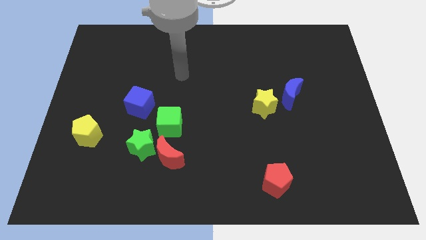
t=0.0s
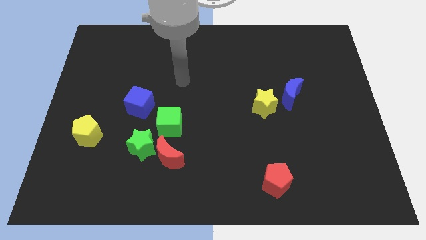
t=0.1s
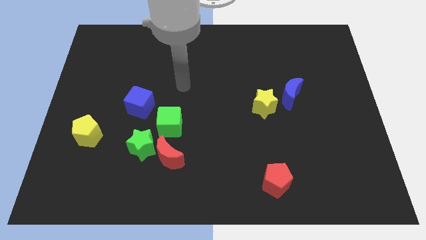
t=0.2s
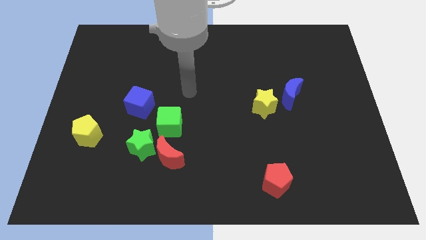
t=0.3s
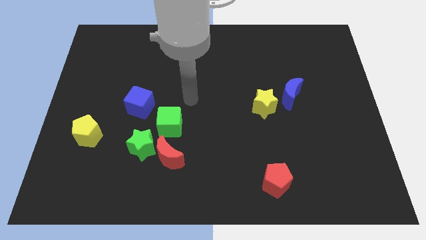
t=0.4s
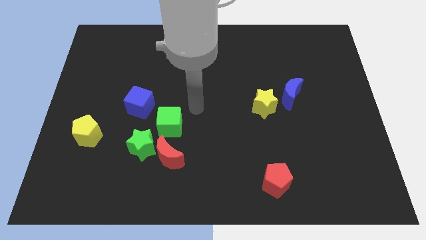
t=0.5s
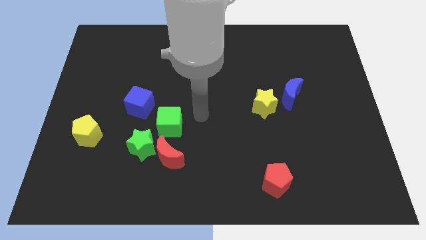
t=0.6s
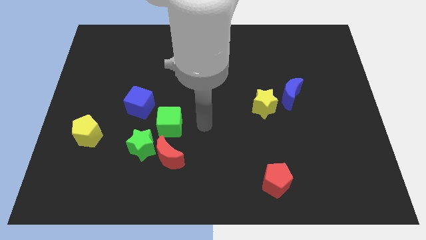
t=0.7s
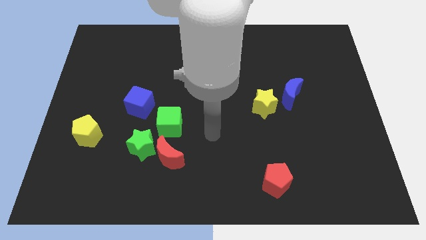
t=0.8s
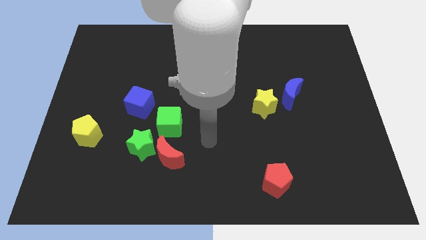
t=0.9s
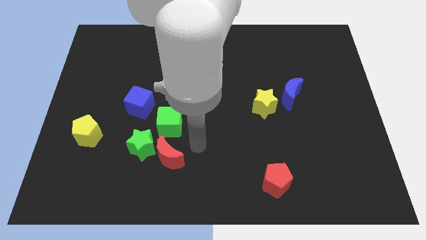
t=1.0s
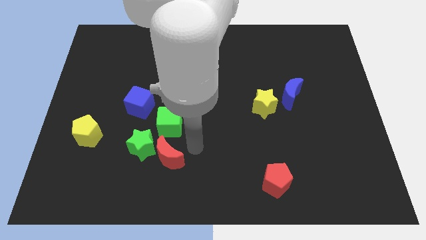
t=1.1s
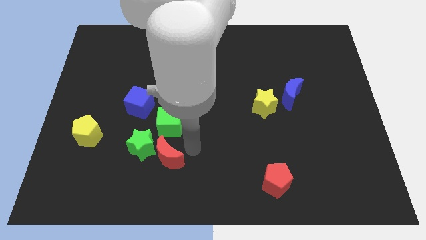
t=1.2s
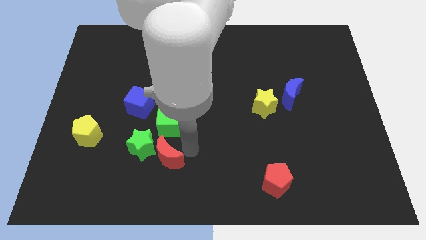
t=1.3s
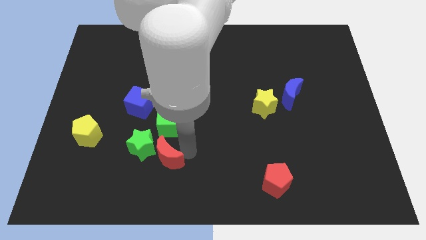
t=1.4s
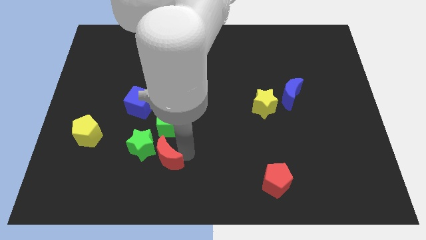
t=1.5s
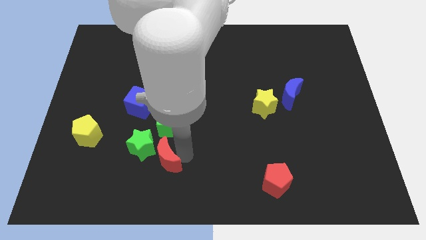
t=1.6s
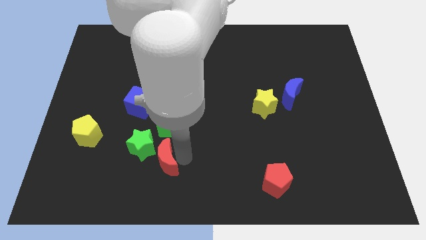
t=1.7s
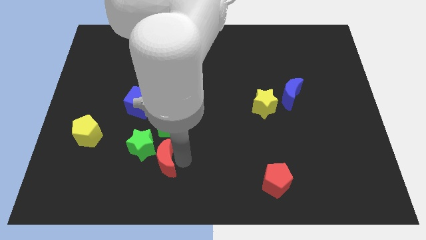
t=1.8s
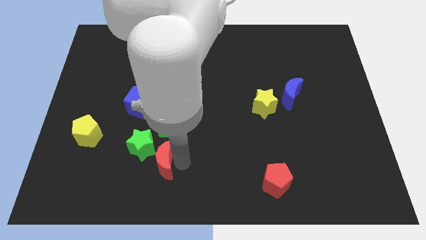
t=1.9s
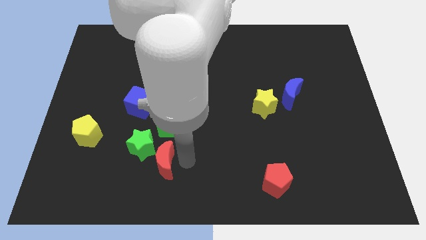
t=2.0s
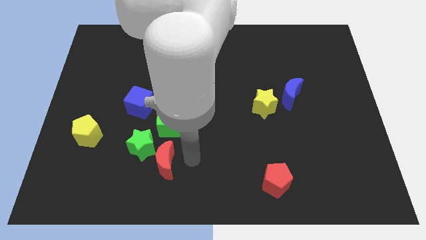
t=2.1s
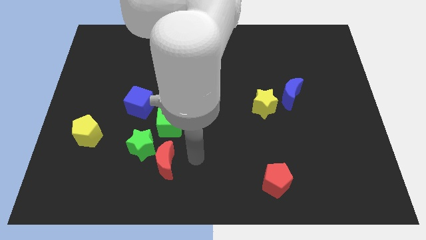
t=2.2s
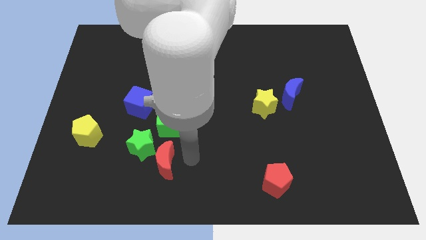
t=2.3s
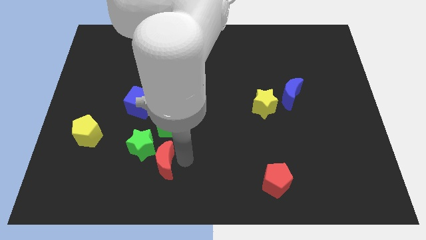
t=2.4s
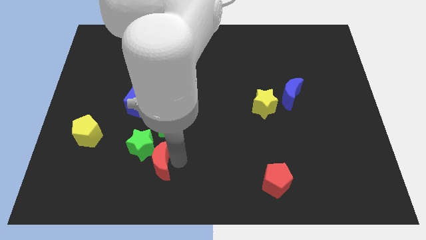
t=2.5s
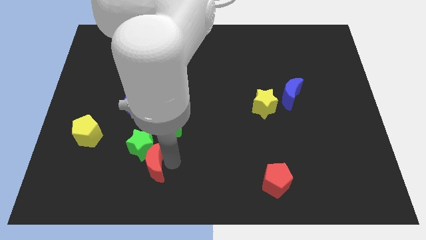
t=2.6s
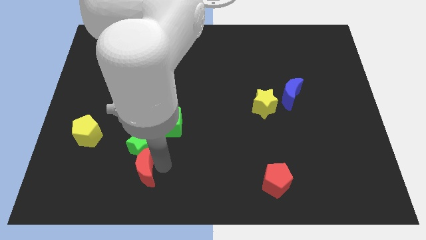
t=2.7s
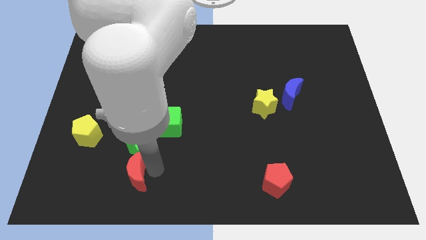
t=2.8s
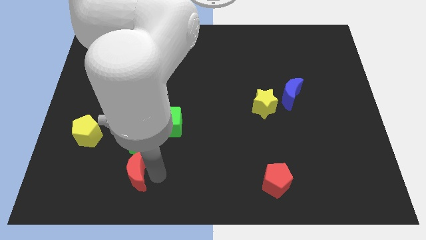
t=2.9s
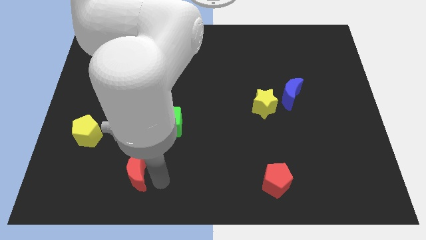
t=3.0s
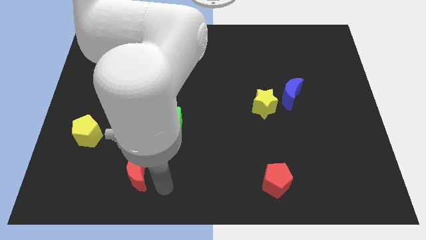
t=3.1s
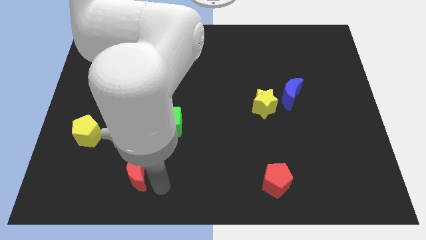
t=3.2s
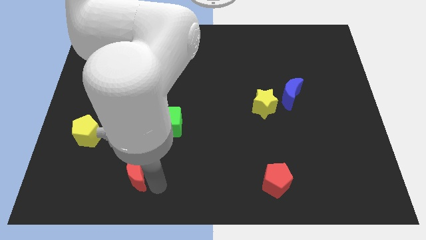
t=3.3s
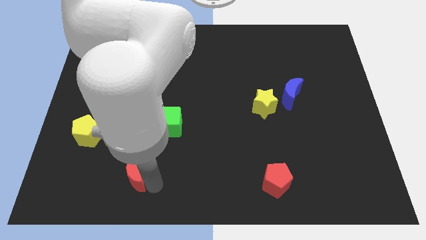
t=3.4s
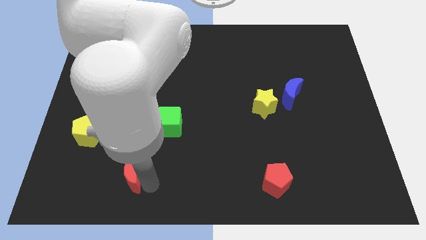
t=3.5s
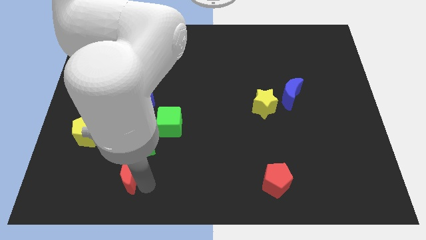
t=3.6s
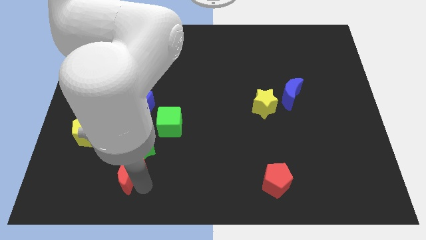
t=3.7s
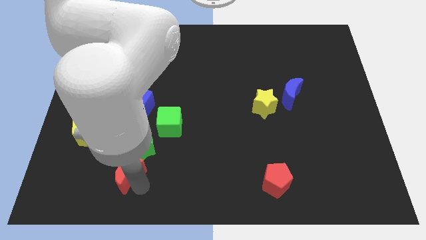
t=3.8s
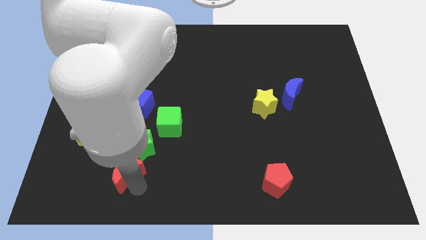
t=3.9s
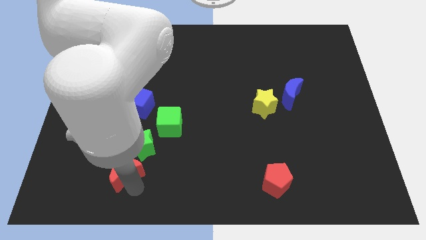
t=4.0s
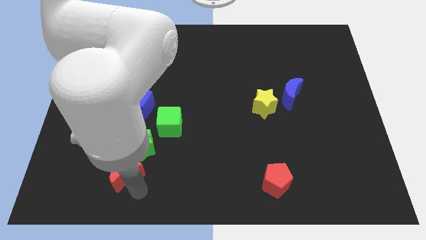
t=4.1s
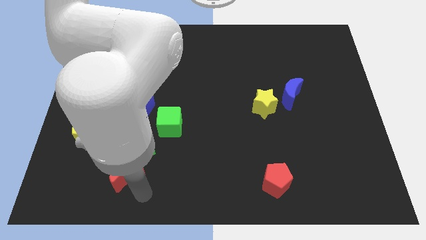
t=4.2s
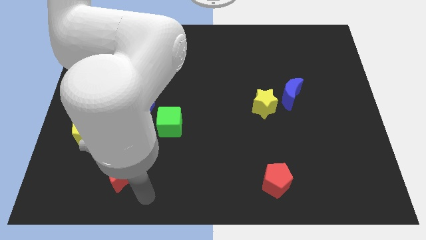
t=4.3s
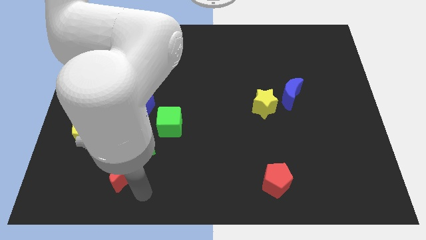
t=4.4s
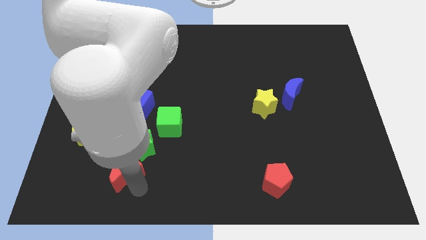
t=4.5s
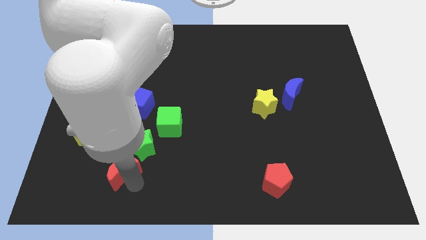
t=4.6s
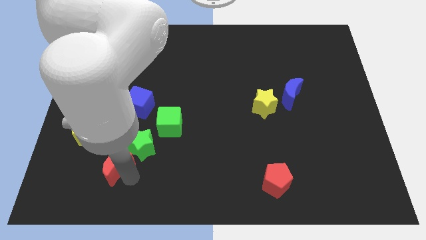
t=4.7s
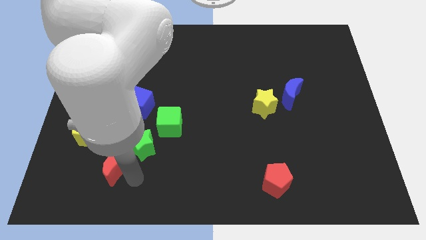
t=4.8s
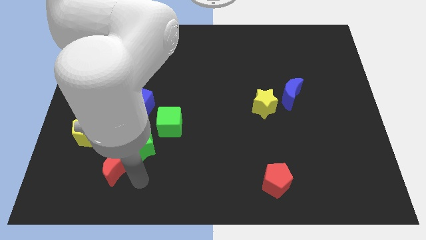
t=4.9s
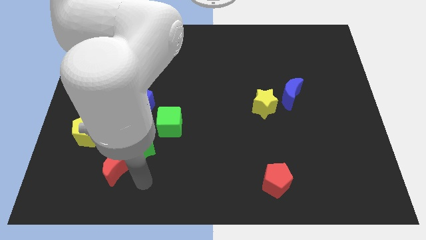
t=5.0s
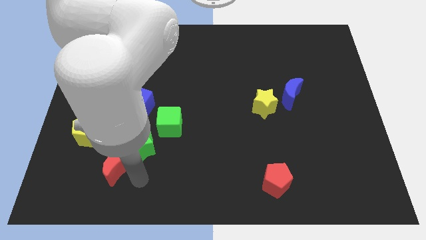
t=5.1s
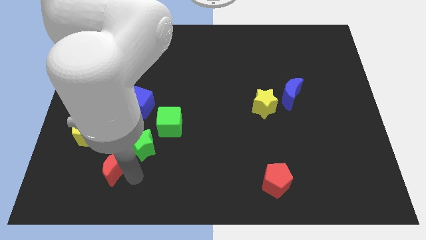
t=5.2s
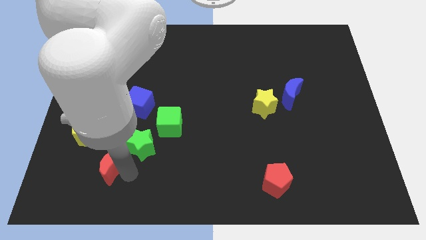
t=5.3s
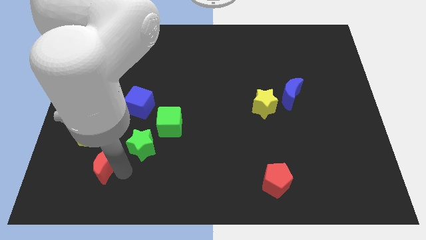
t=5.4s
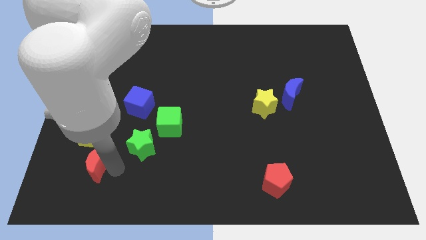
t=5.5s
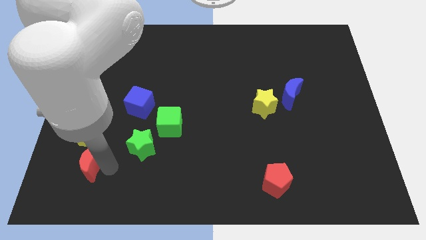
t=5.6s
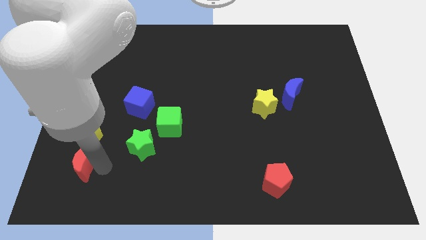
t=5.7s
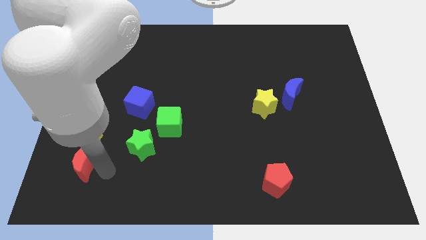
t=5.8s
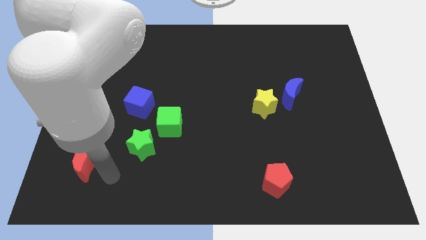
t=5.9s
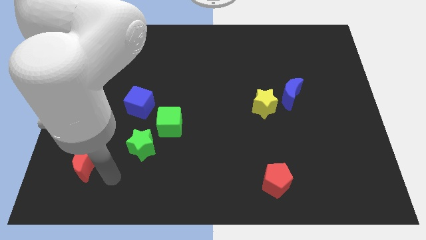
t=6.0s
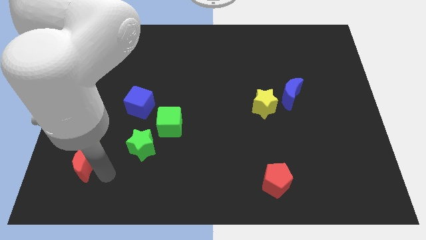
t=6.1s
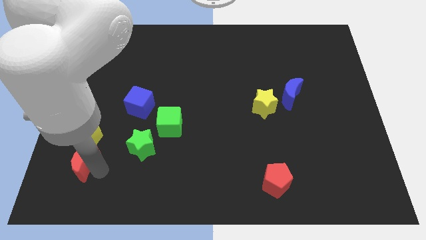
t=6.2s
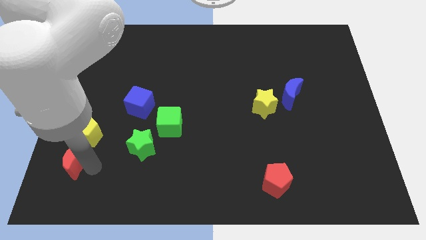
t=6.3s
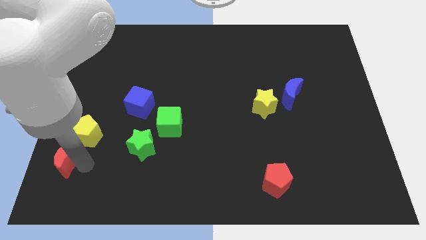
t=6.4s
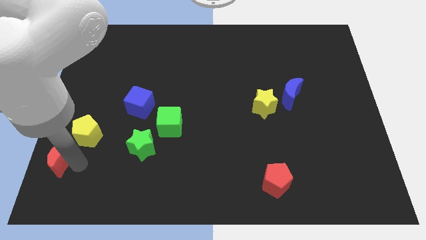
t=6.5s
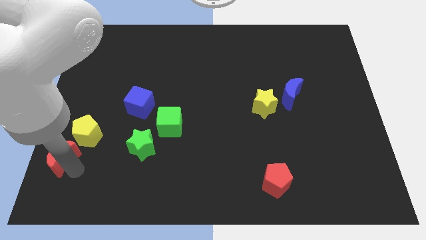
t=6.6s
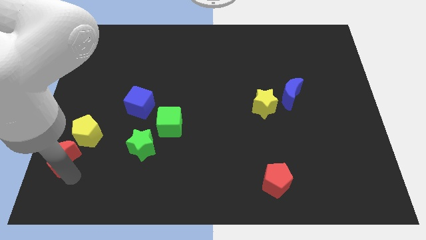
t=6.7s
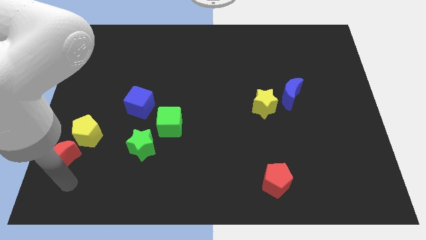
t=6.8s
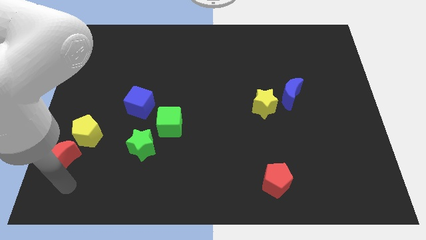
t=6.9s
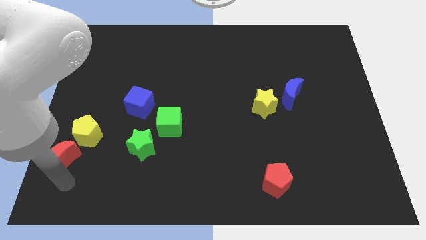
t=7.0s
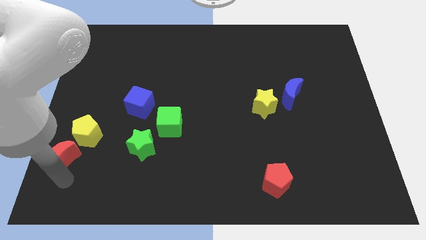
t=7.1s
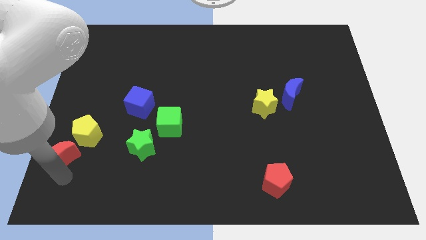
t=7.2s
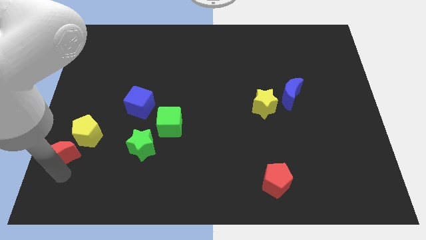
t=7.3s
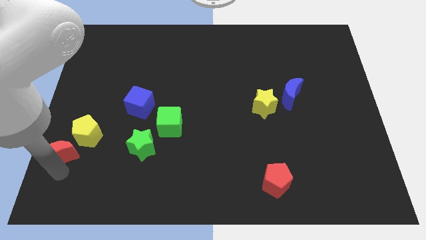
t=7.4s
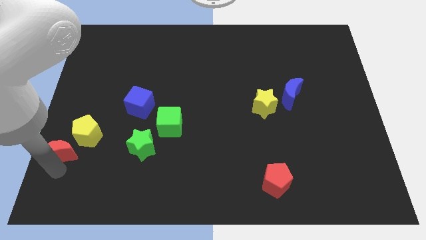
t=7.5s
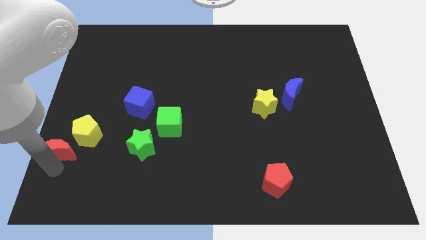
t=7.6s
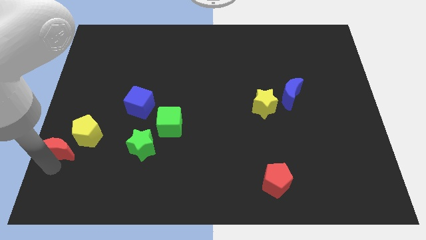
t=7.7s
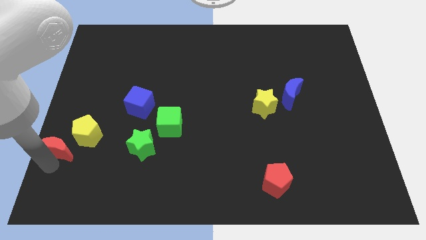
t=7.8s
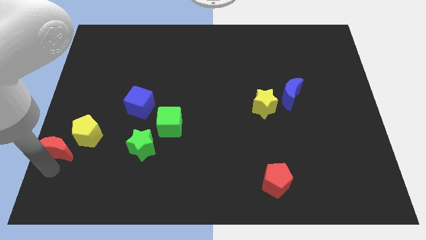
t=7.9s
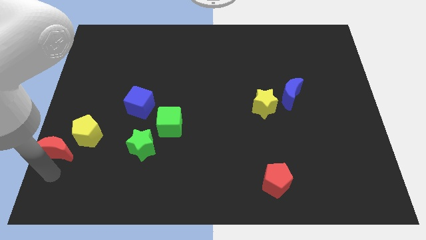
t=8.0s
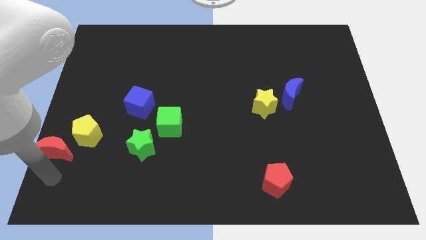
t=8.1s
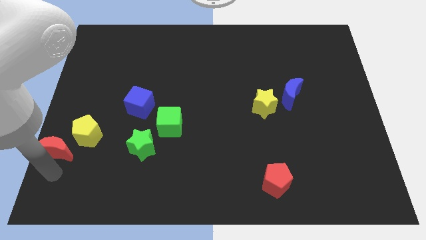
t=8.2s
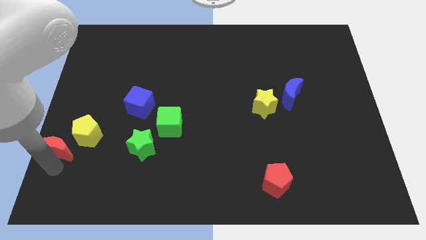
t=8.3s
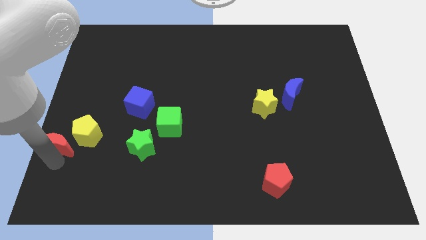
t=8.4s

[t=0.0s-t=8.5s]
move the red moon to the center left
